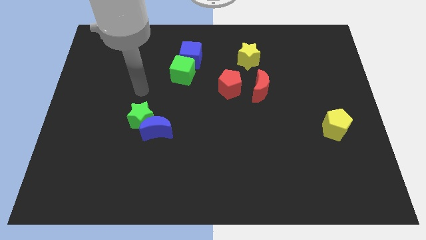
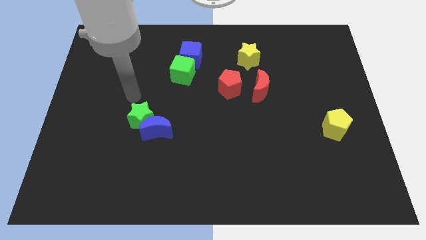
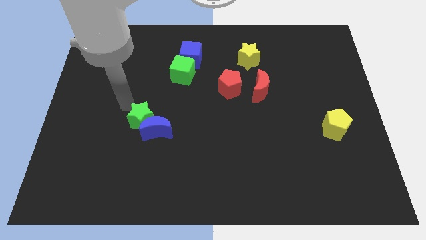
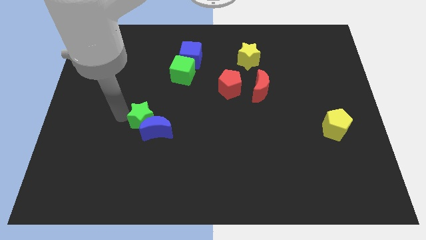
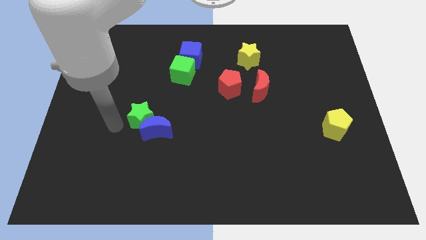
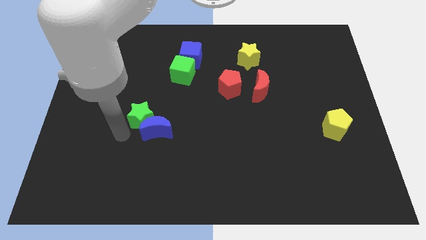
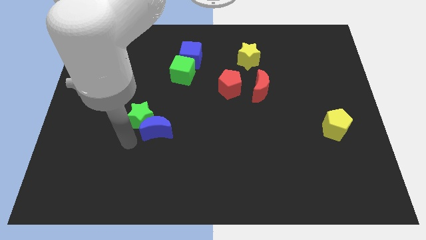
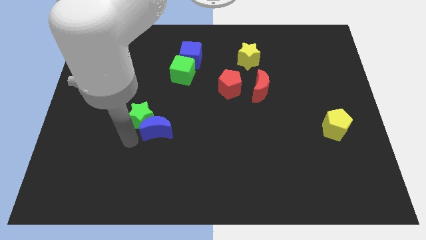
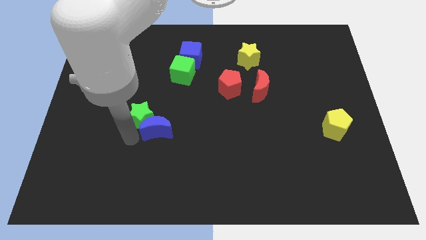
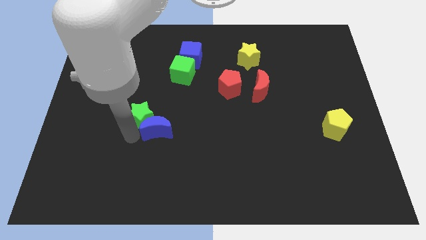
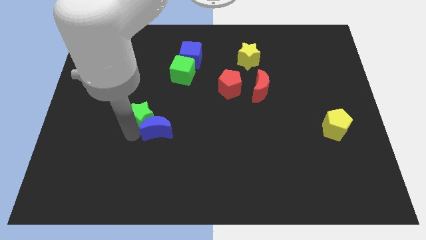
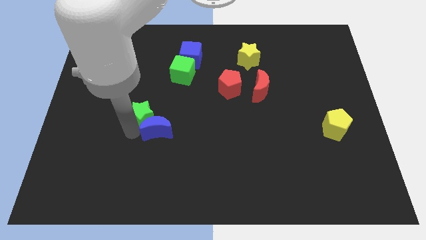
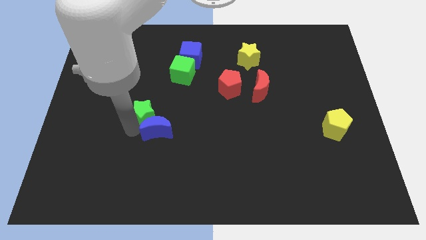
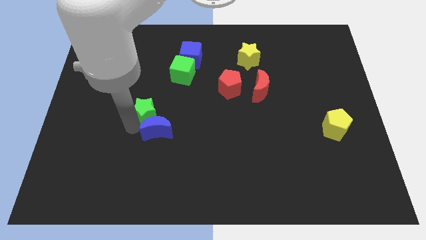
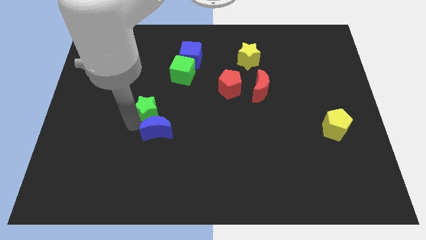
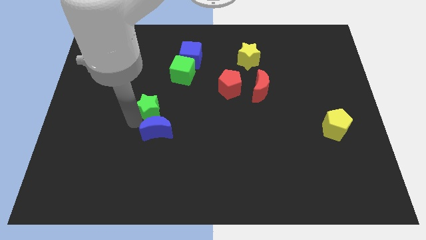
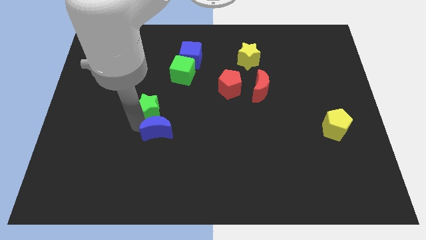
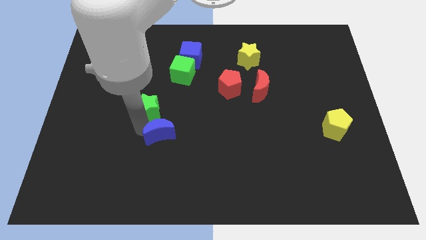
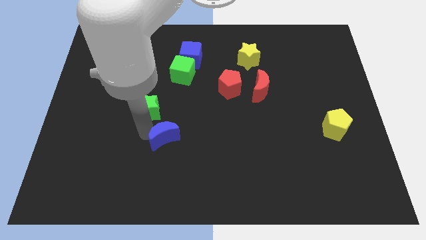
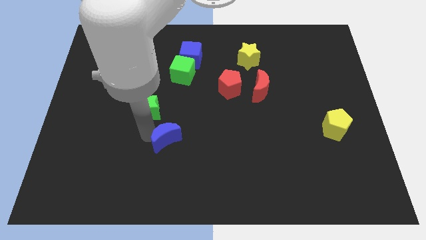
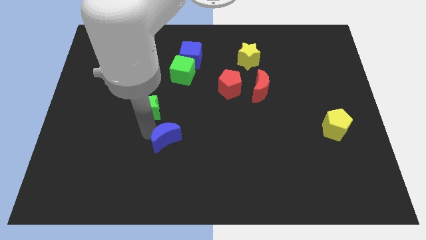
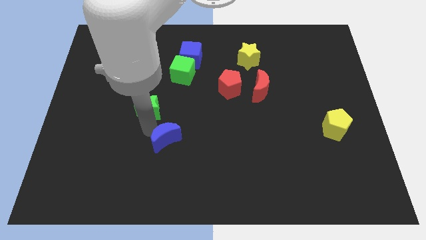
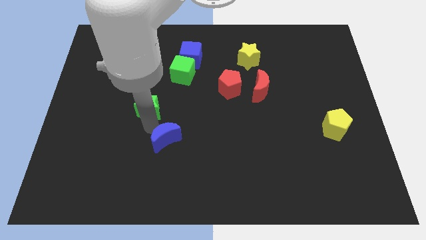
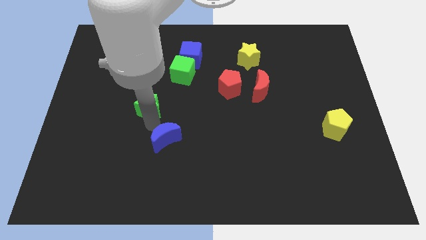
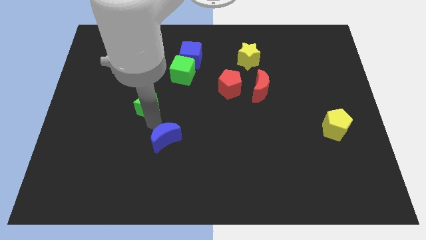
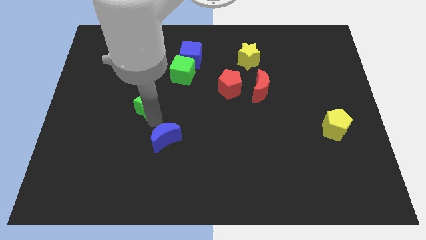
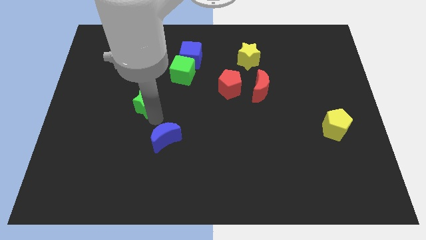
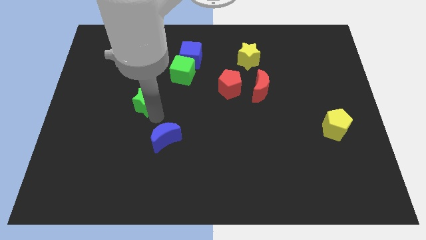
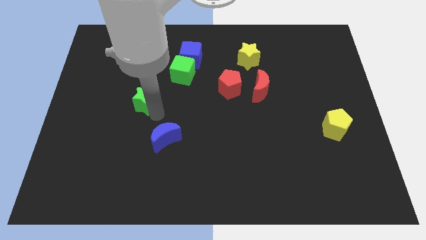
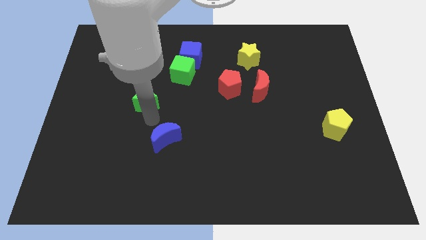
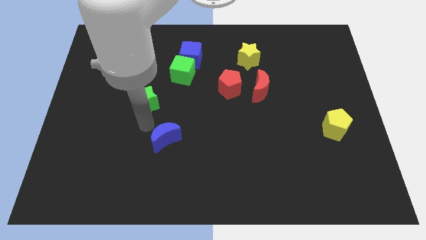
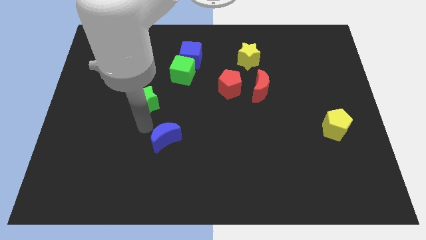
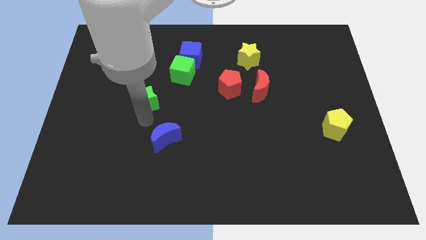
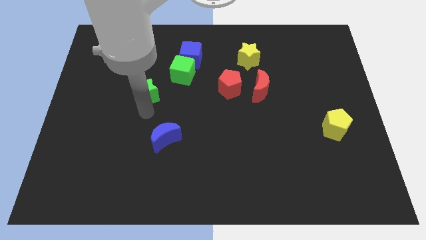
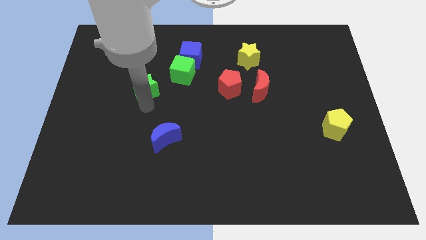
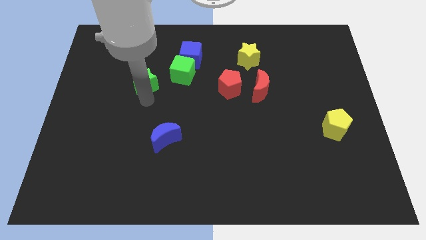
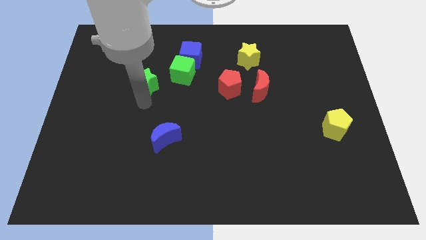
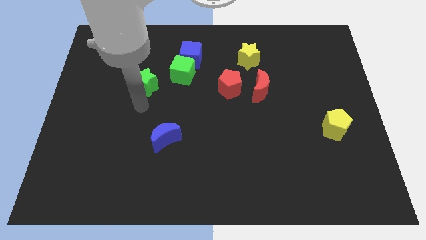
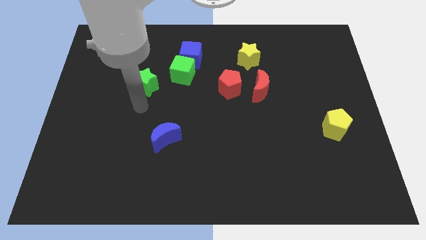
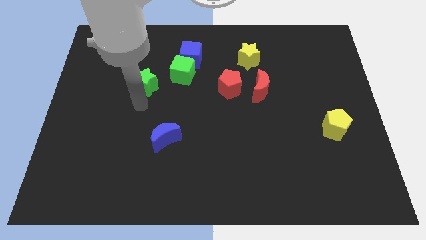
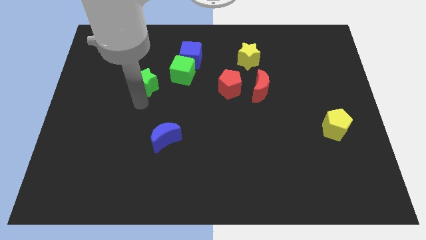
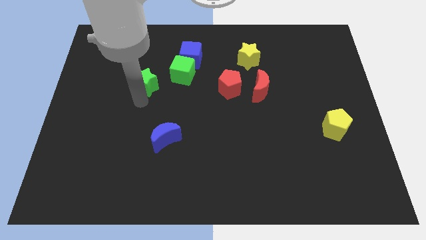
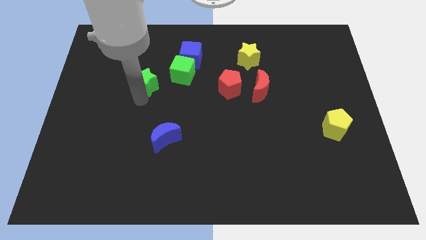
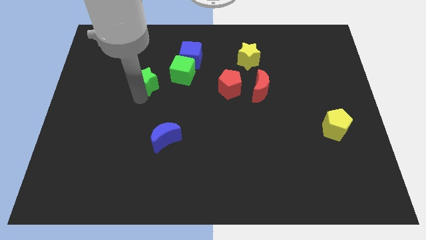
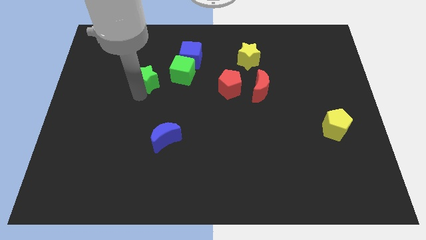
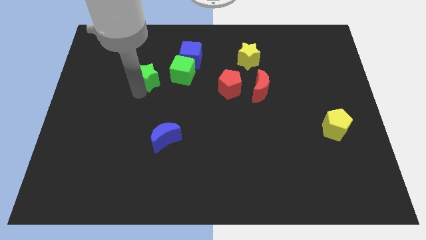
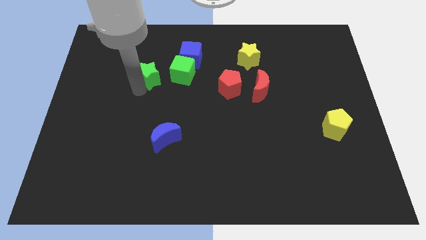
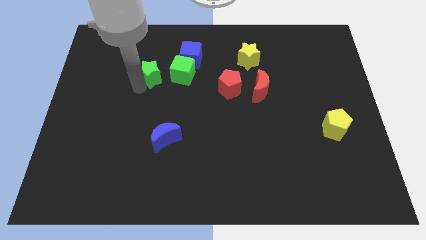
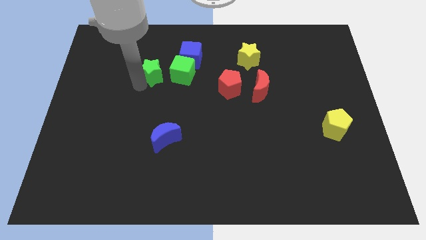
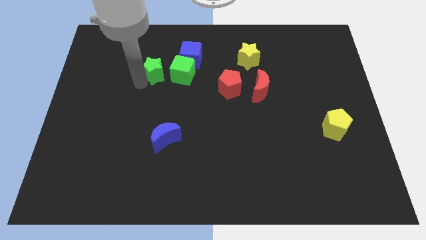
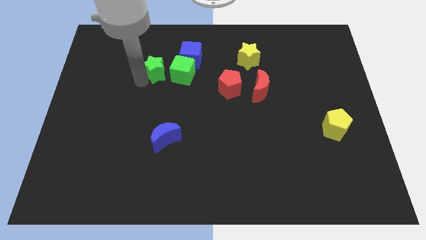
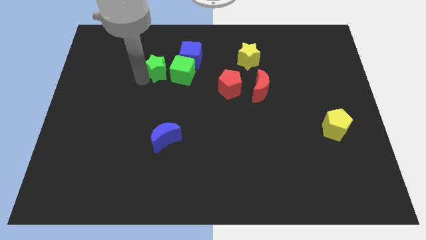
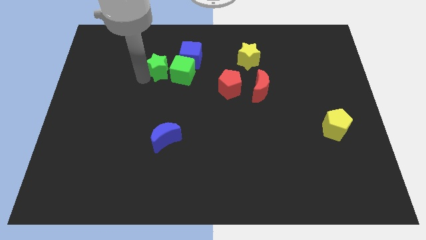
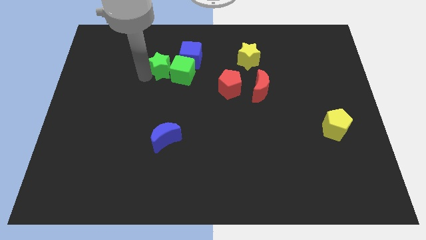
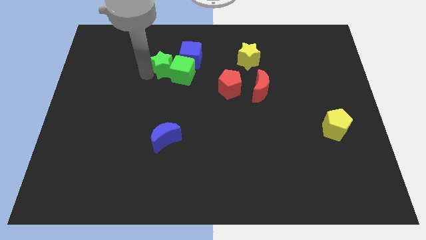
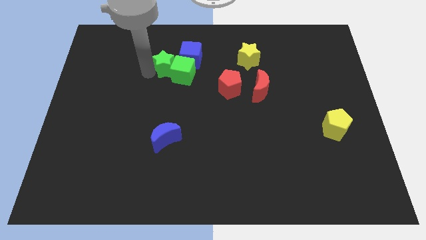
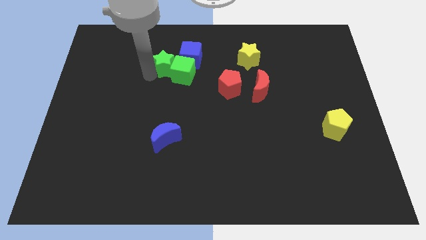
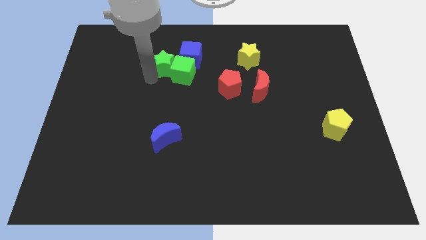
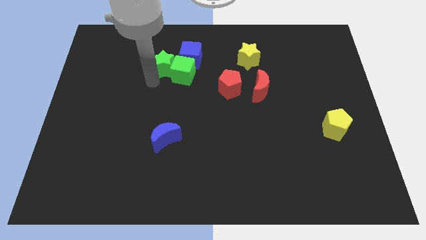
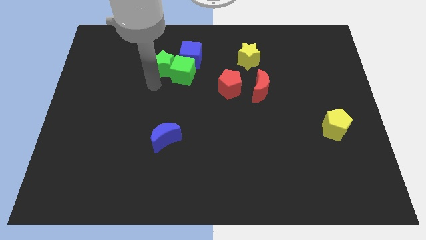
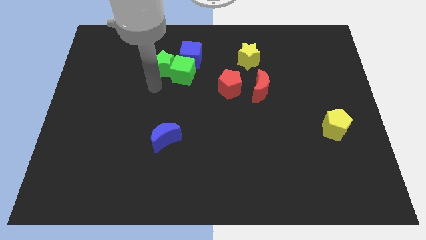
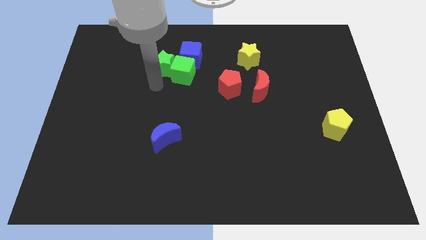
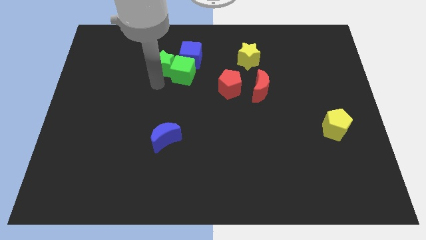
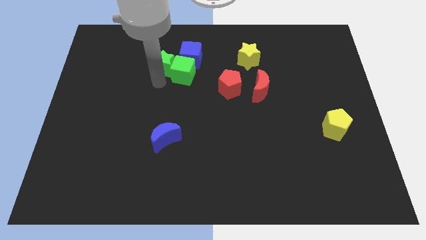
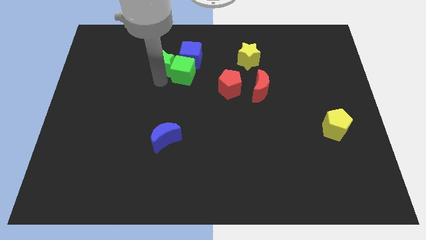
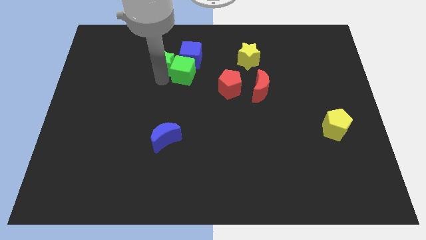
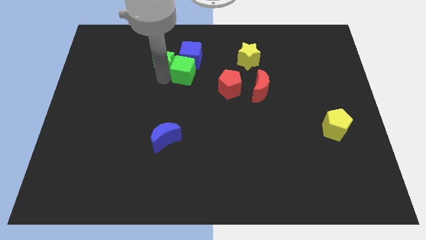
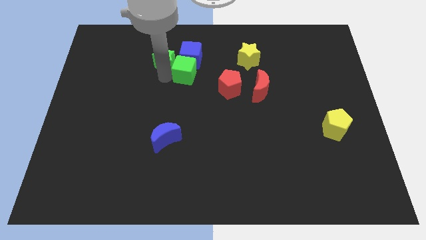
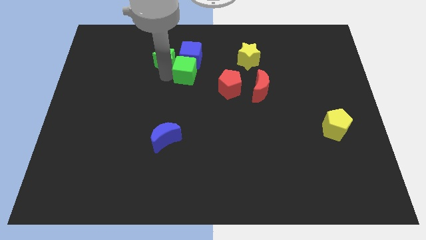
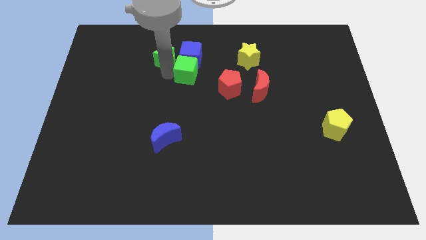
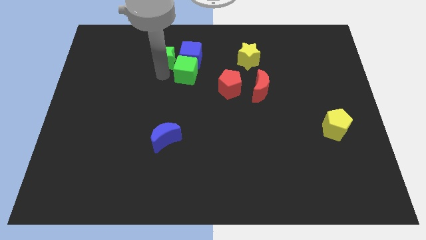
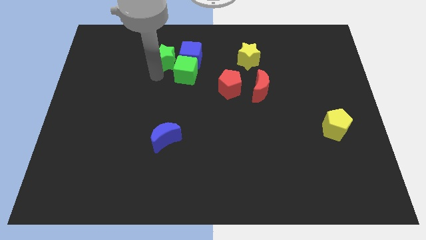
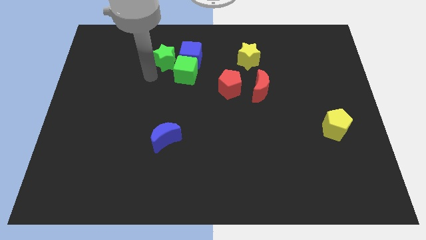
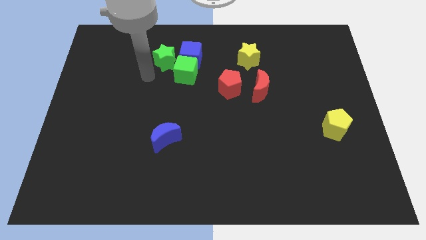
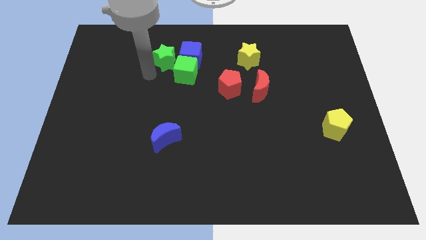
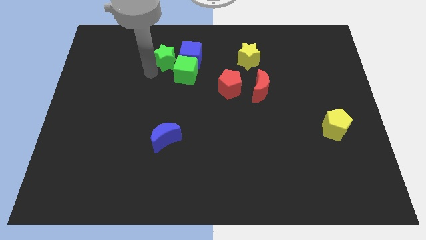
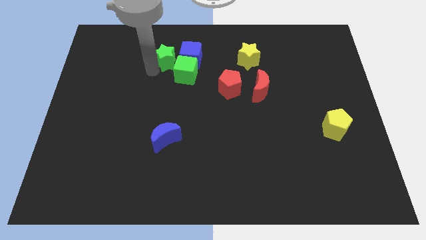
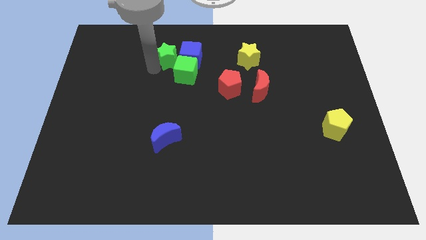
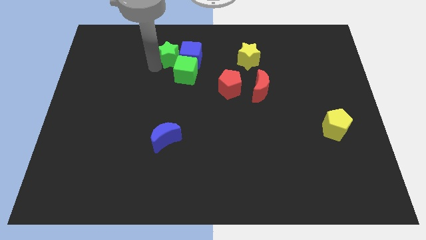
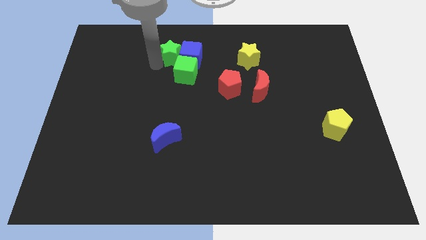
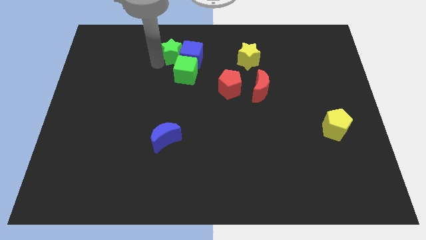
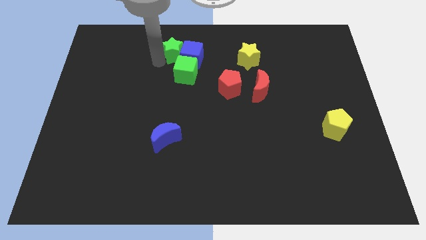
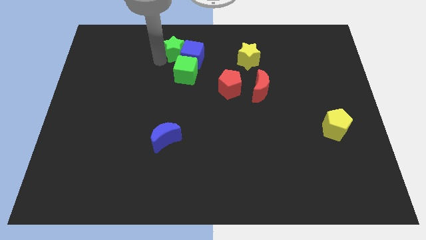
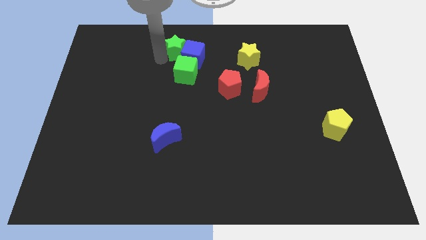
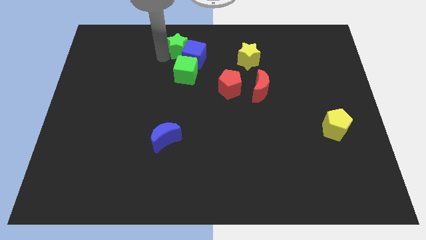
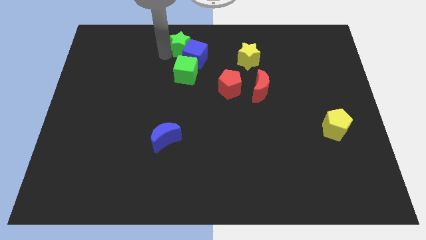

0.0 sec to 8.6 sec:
slide the green star to the towards your base
